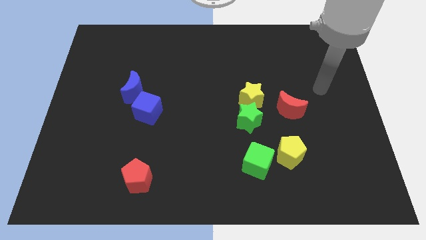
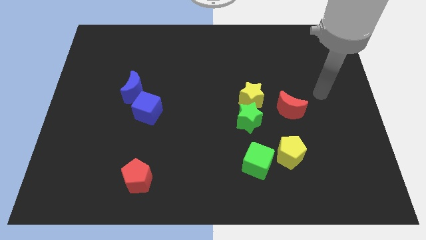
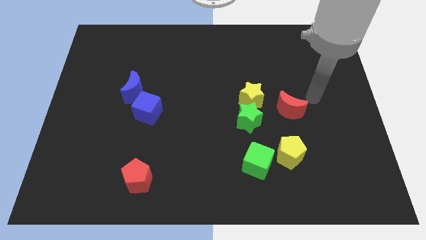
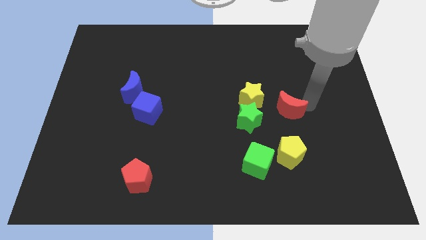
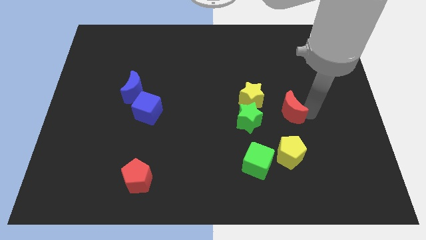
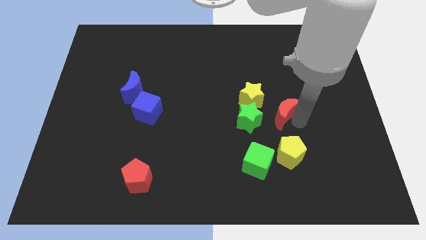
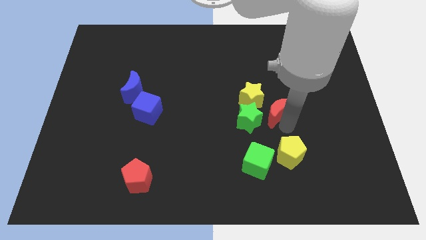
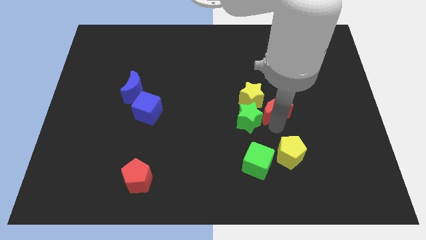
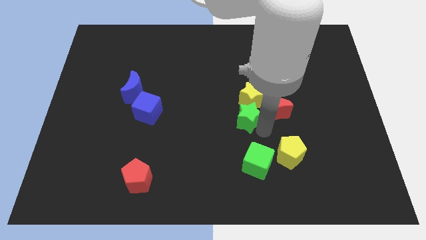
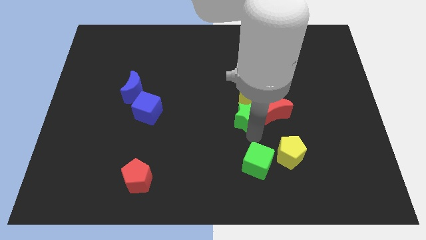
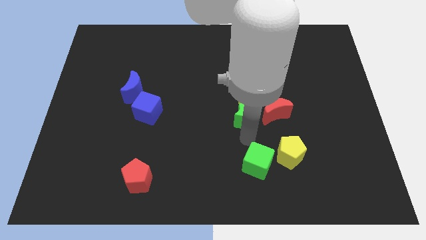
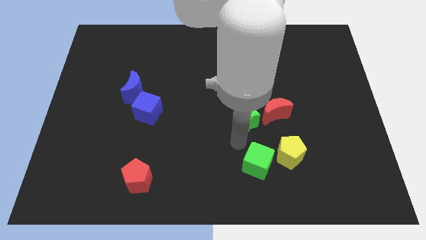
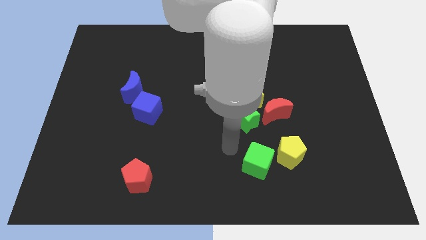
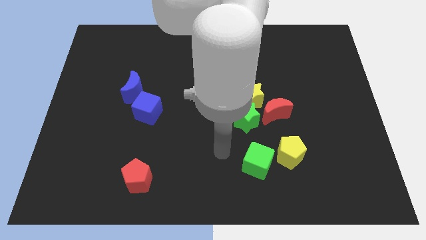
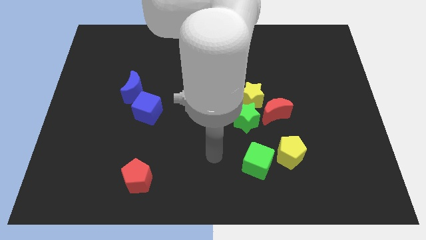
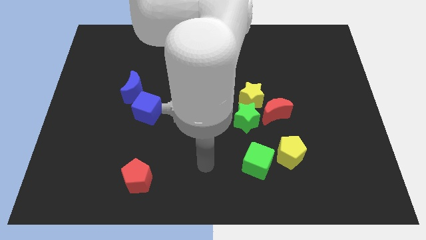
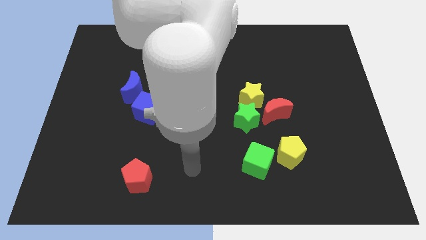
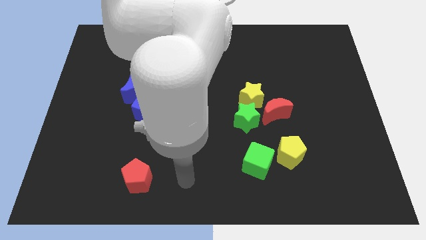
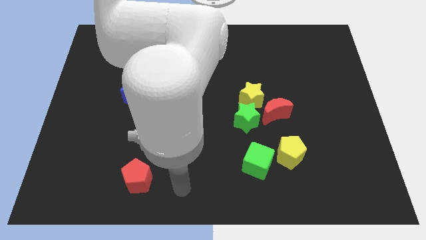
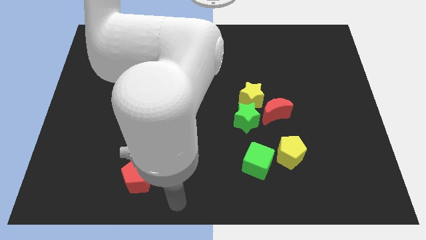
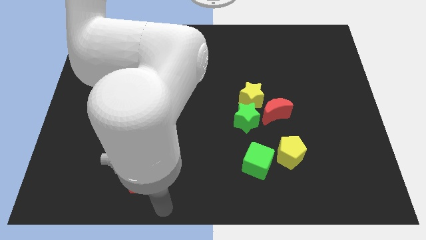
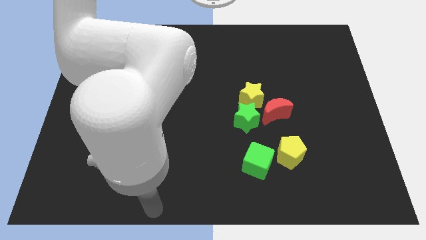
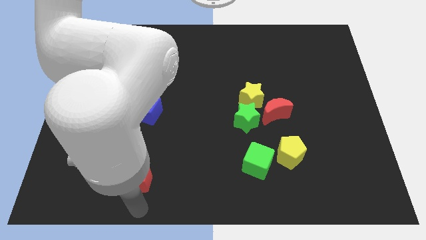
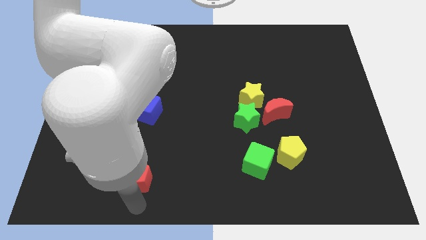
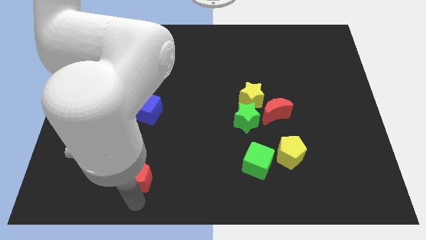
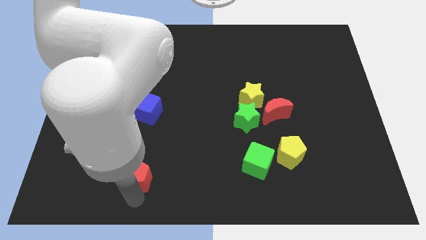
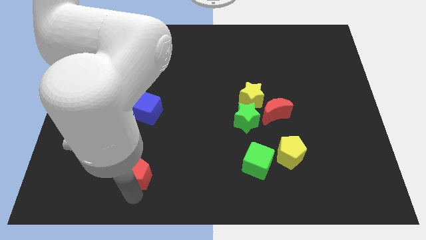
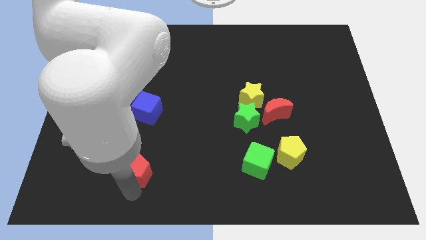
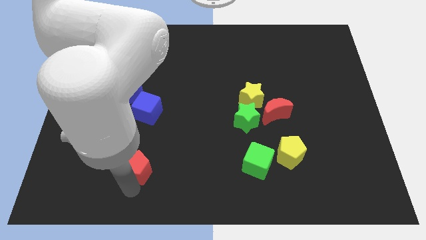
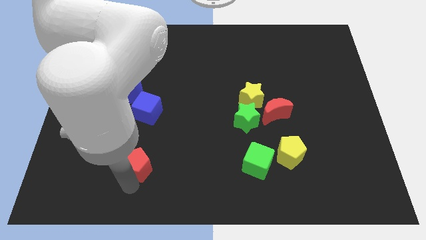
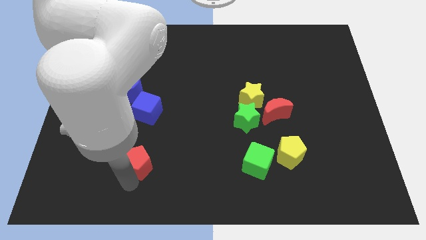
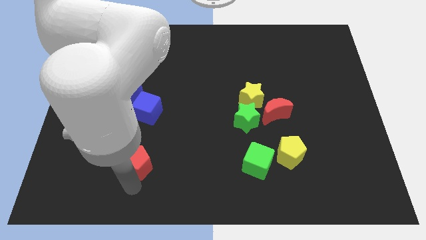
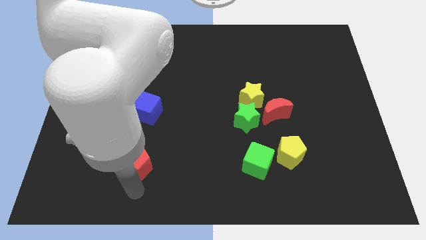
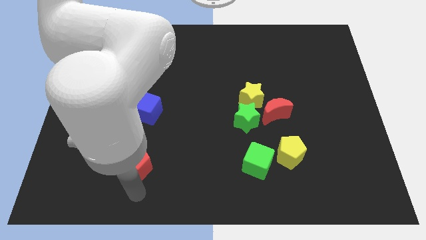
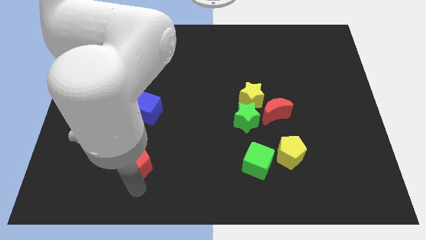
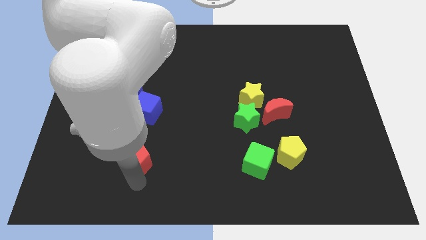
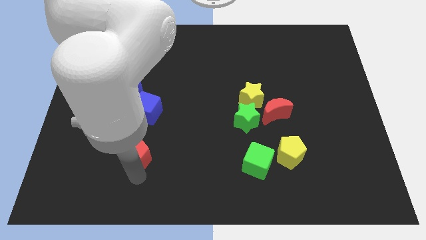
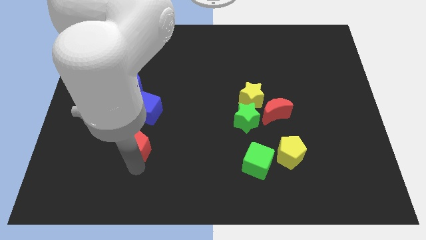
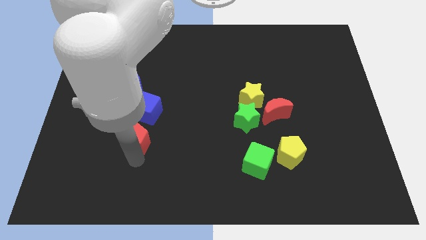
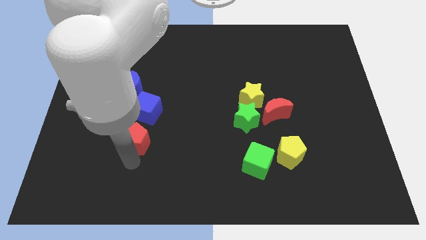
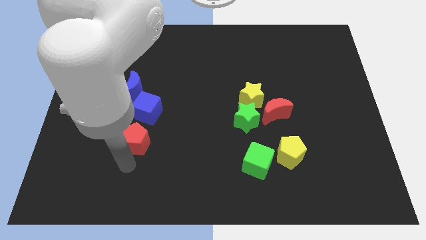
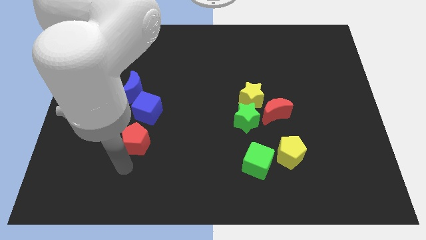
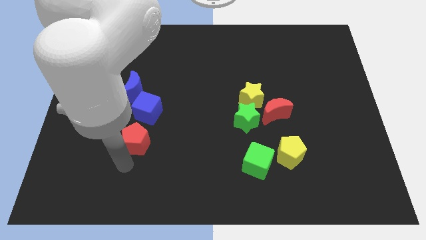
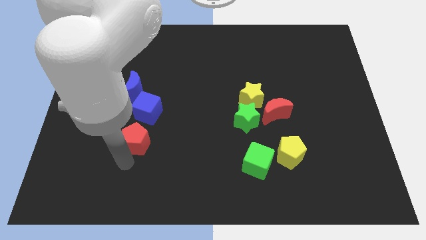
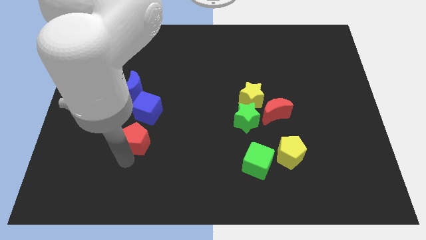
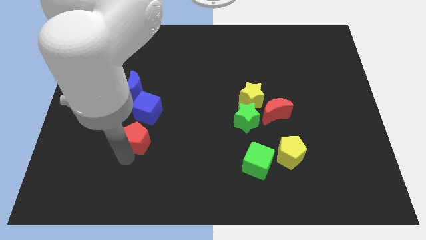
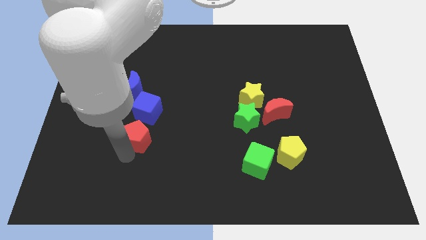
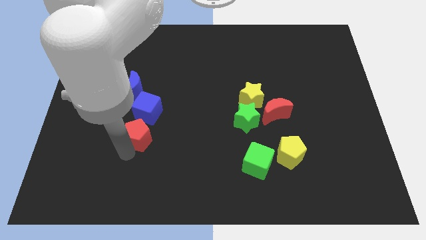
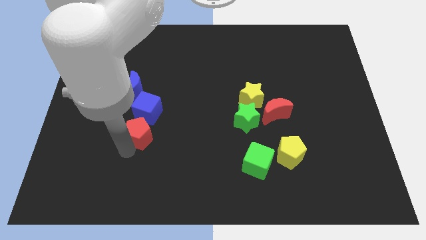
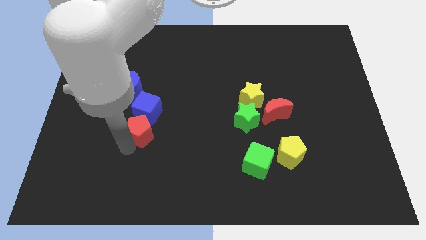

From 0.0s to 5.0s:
slide the red pentagon to the blue cube

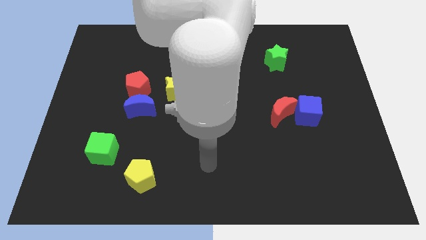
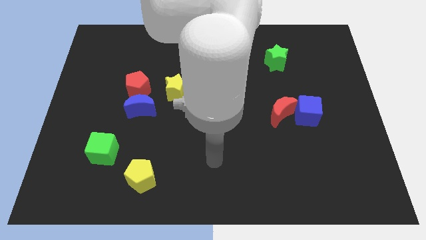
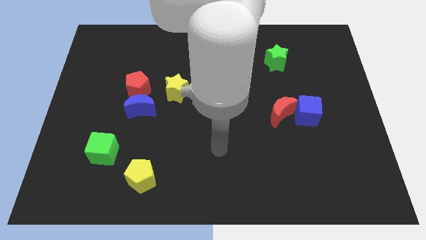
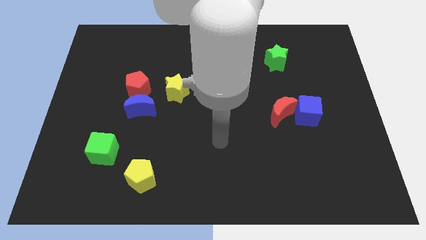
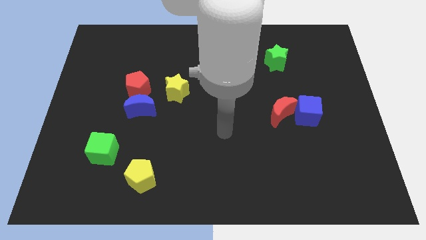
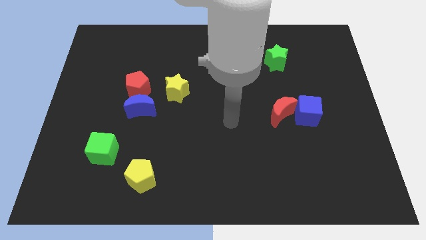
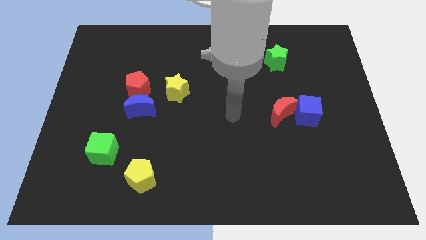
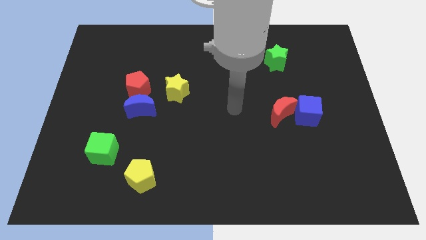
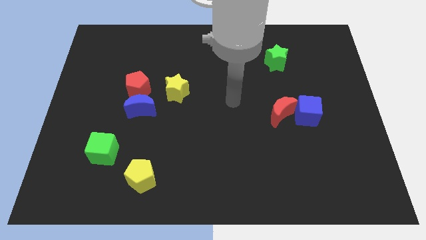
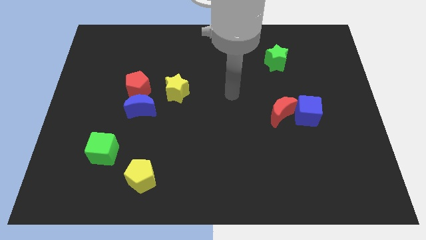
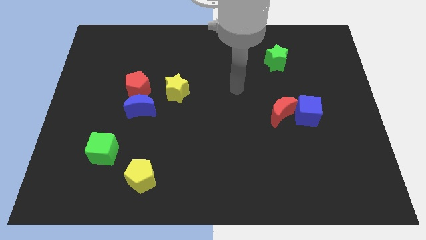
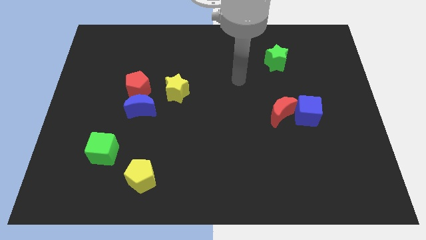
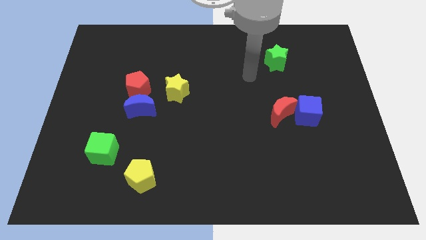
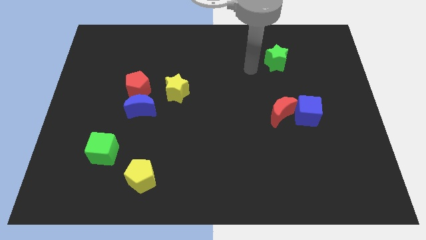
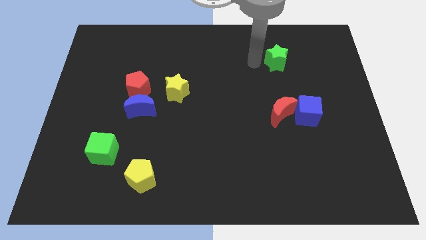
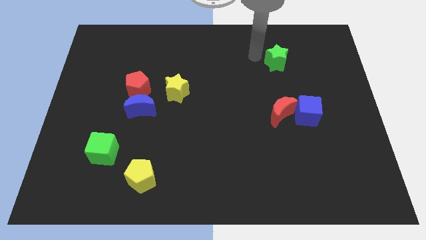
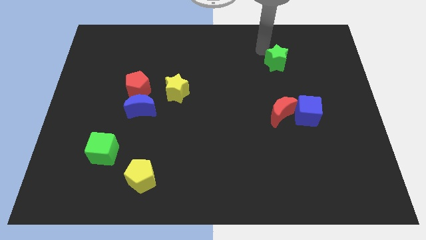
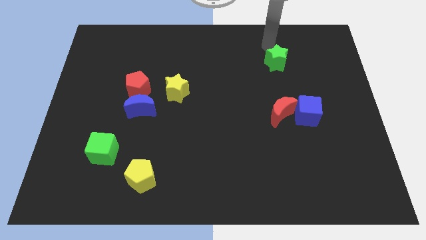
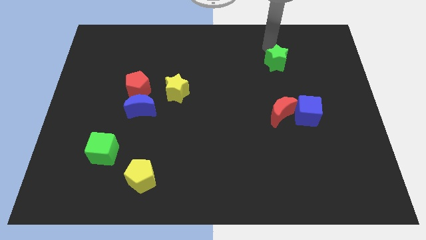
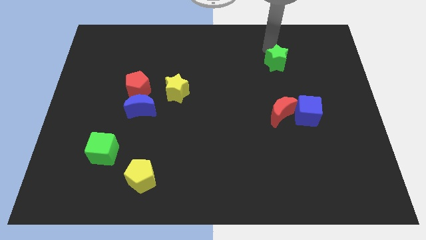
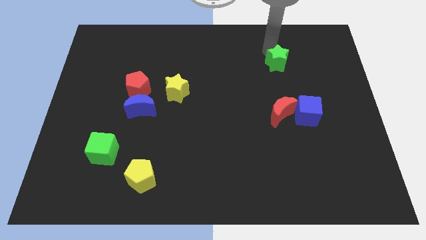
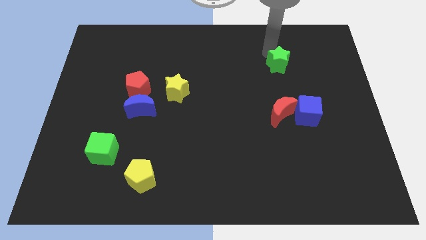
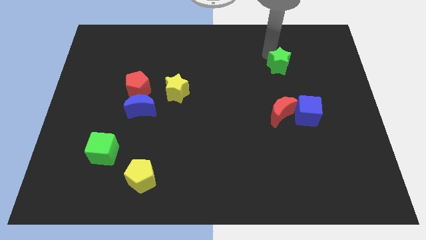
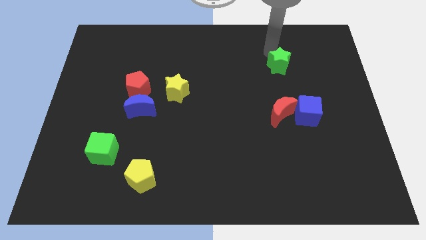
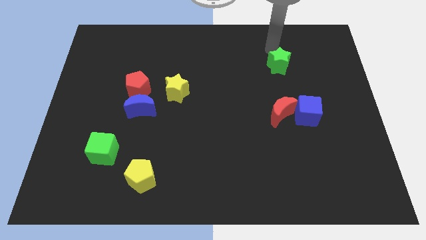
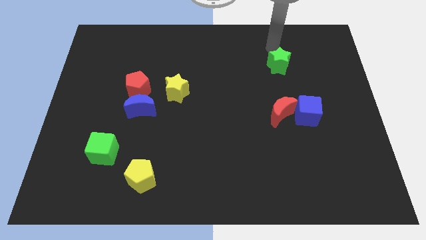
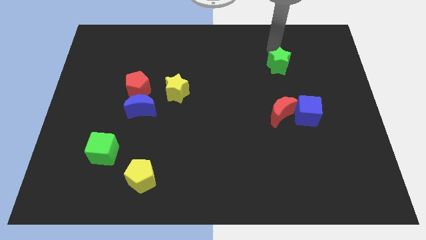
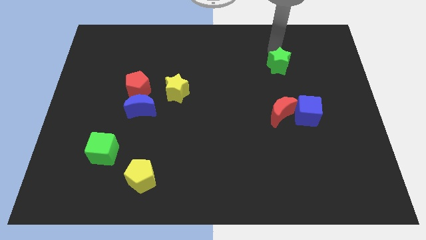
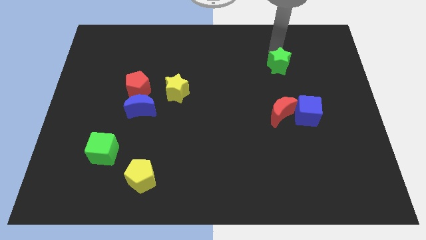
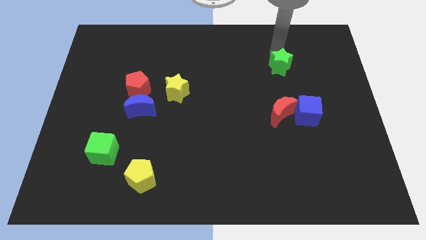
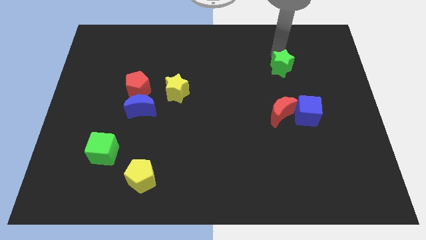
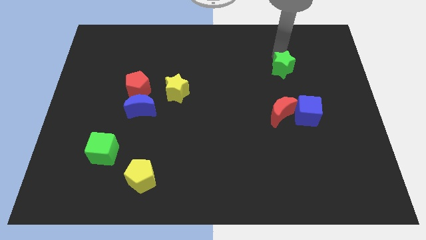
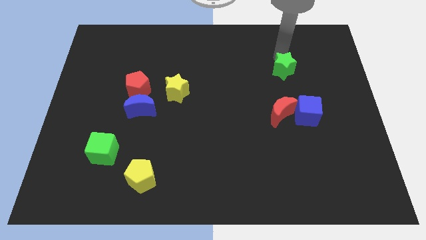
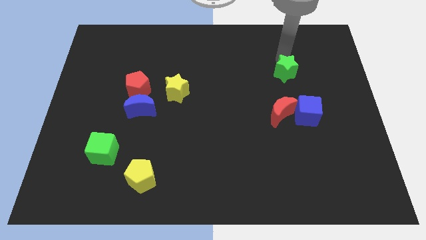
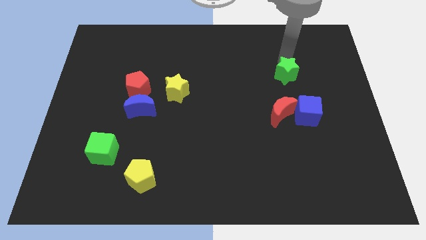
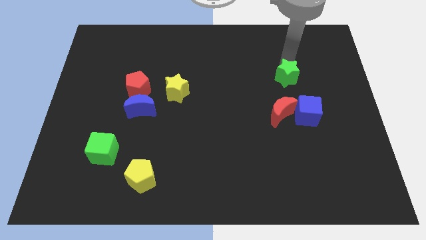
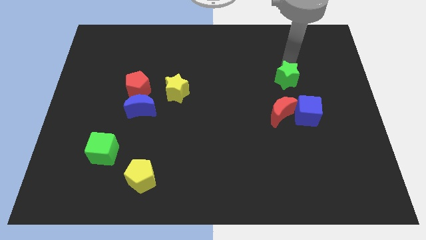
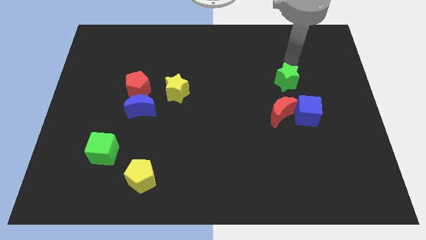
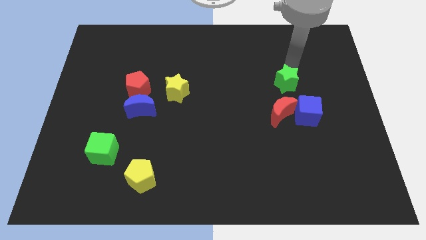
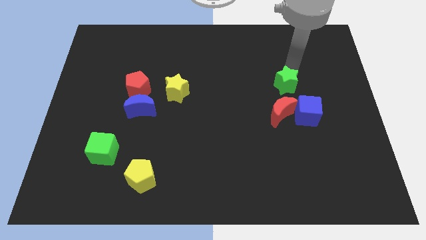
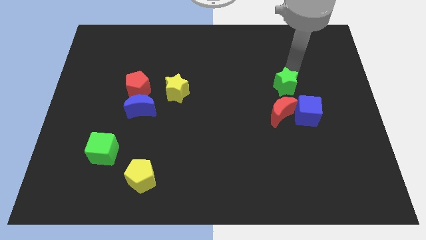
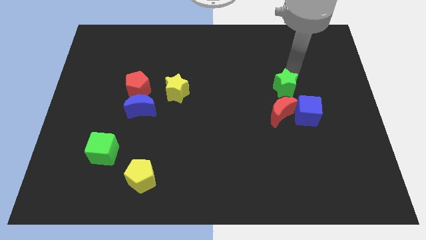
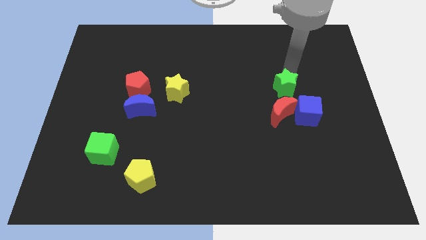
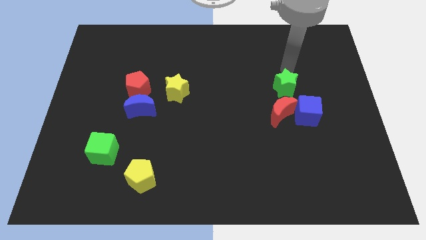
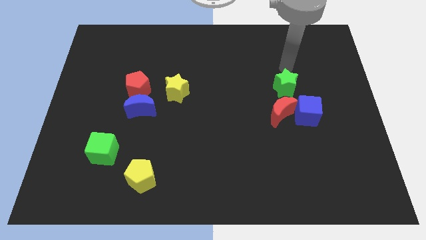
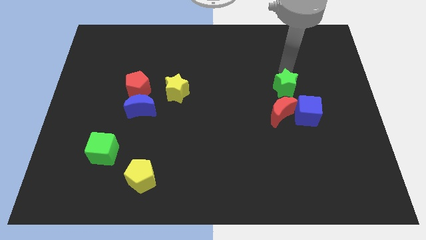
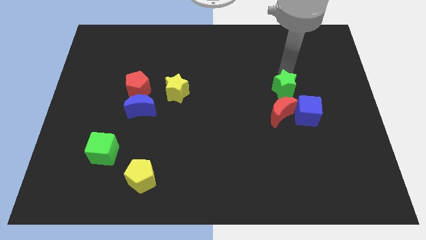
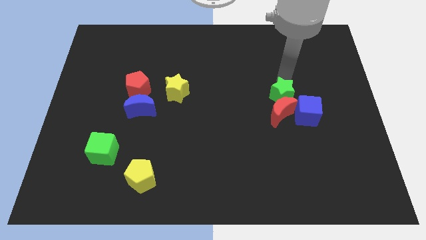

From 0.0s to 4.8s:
slide the green star next to the red moon
